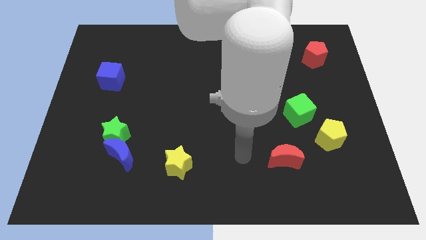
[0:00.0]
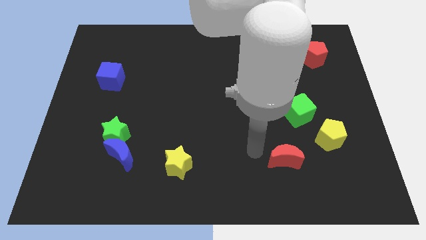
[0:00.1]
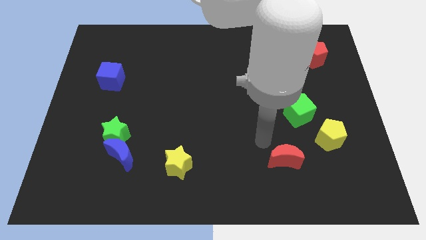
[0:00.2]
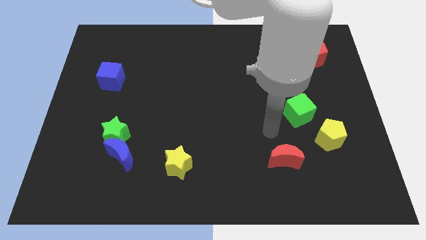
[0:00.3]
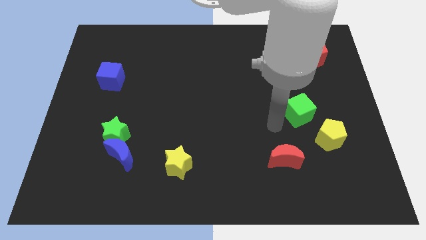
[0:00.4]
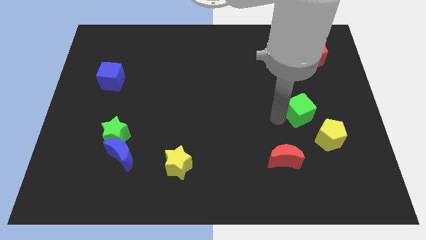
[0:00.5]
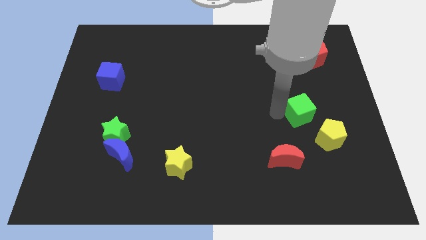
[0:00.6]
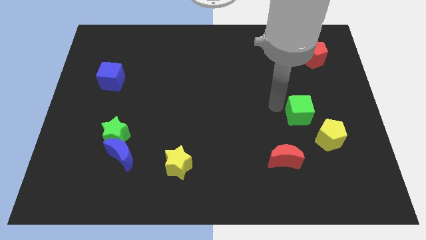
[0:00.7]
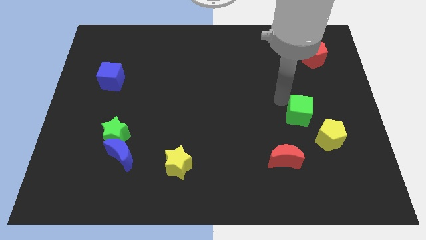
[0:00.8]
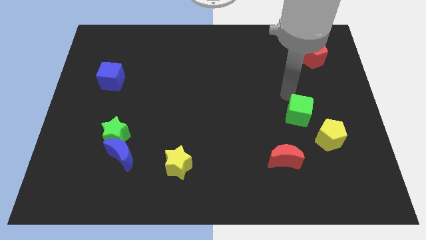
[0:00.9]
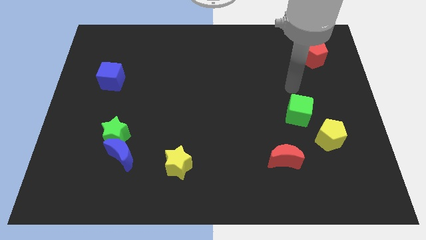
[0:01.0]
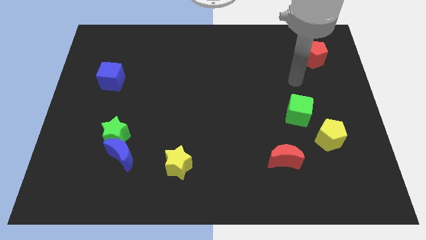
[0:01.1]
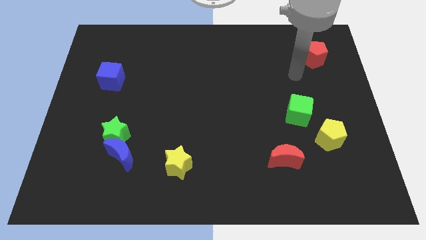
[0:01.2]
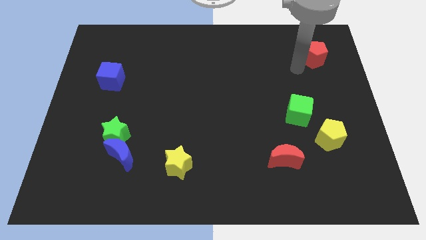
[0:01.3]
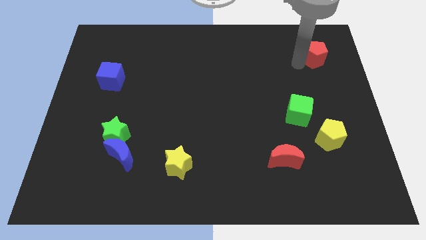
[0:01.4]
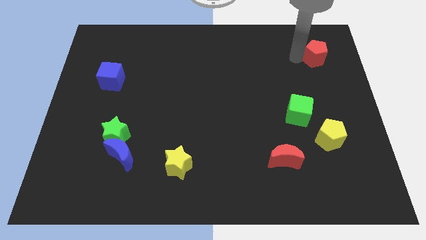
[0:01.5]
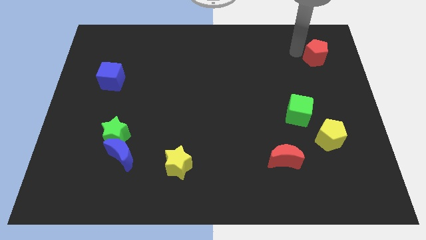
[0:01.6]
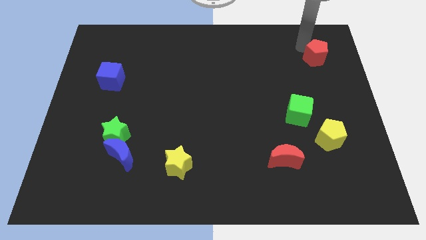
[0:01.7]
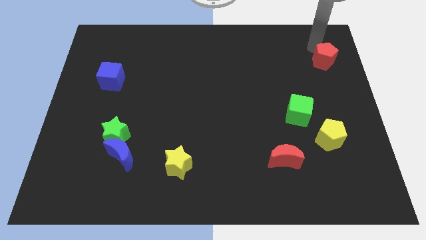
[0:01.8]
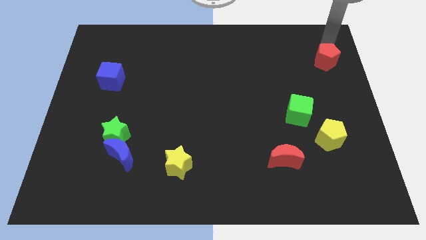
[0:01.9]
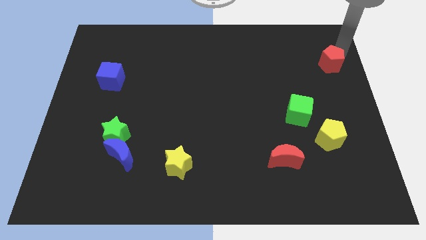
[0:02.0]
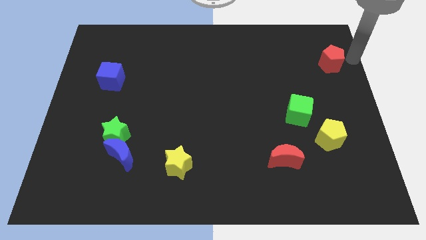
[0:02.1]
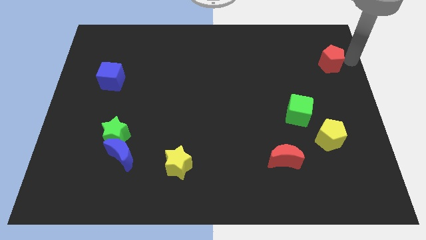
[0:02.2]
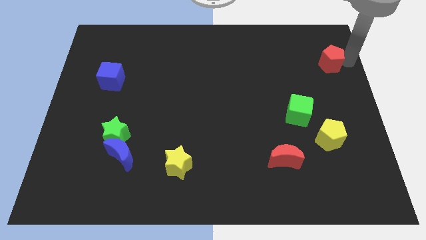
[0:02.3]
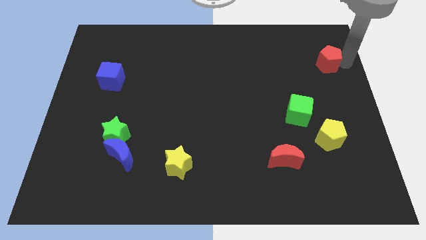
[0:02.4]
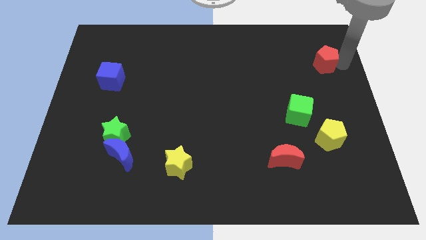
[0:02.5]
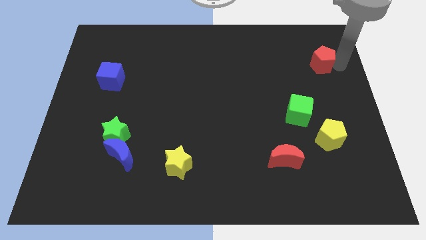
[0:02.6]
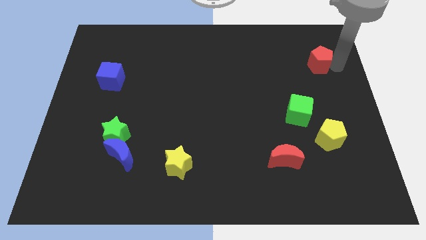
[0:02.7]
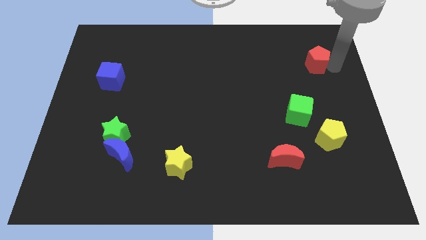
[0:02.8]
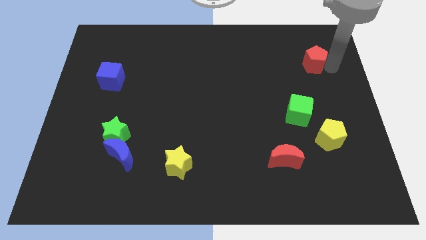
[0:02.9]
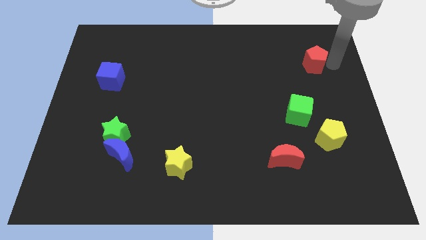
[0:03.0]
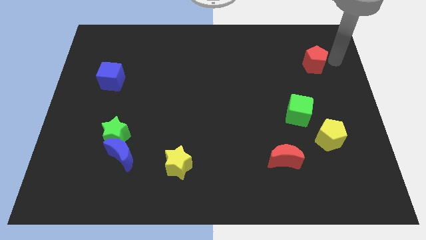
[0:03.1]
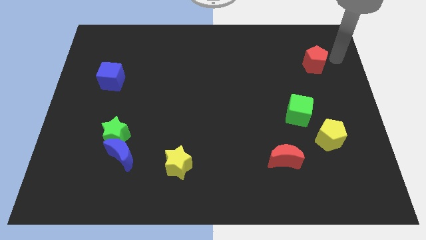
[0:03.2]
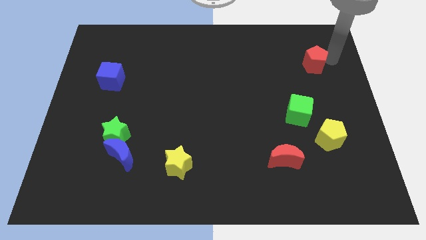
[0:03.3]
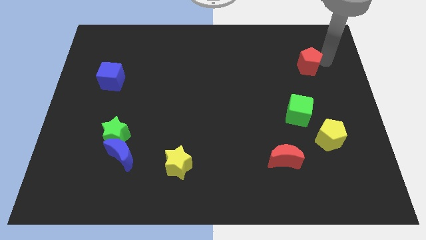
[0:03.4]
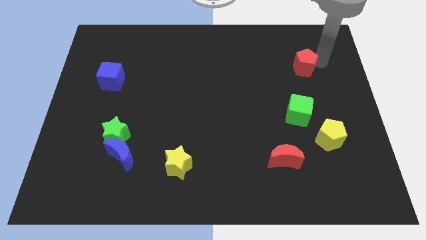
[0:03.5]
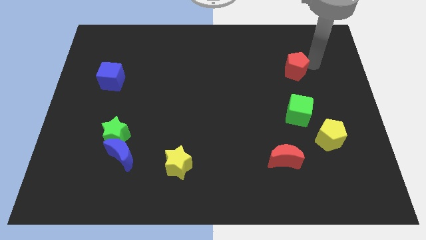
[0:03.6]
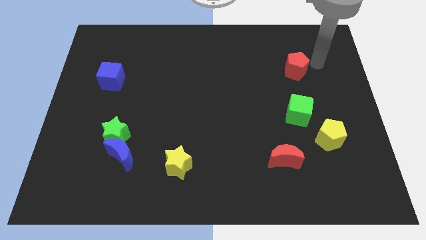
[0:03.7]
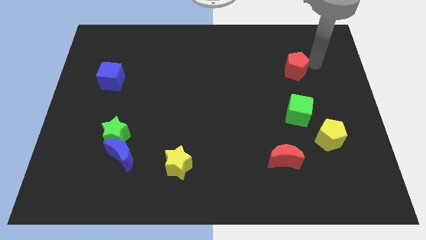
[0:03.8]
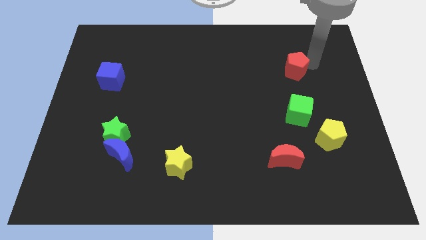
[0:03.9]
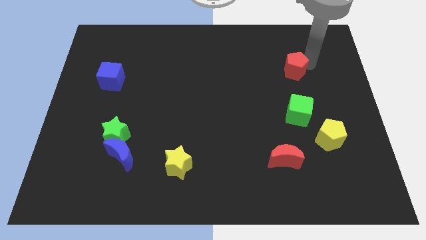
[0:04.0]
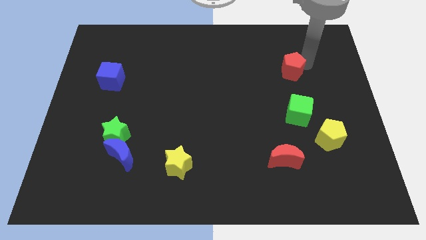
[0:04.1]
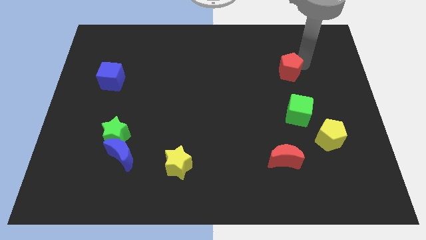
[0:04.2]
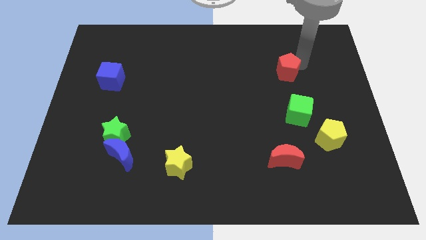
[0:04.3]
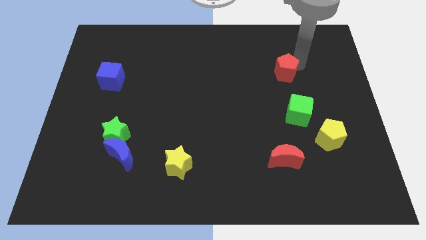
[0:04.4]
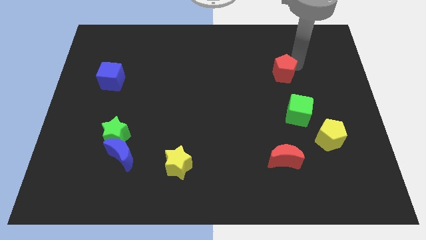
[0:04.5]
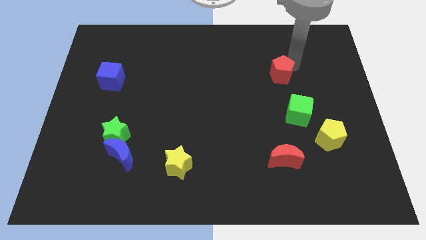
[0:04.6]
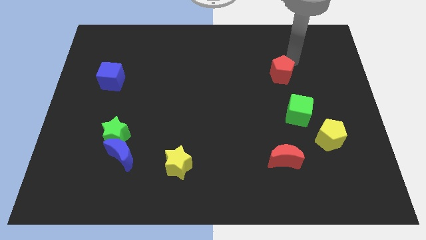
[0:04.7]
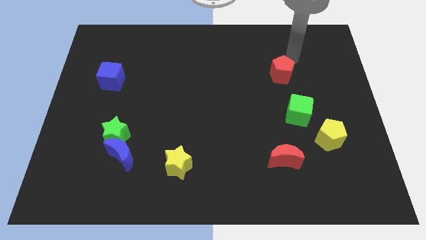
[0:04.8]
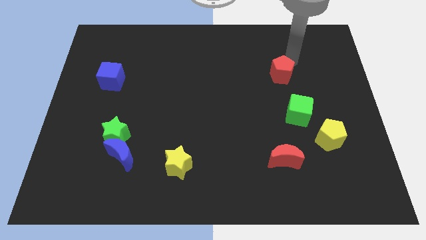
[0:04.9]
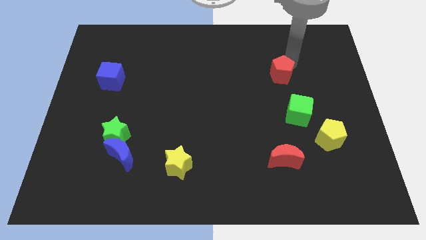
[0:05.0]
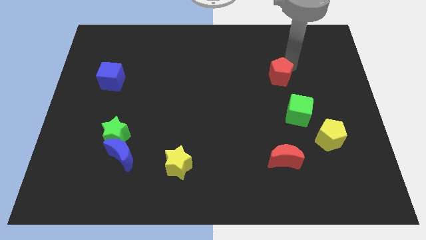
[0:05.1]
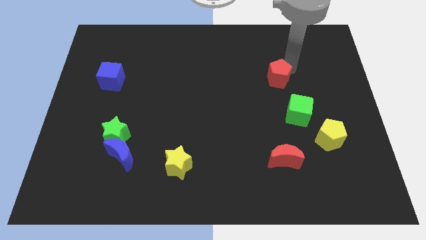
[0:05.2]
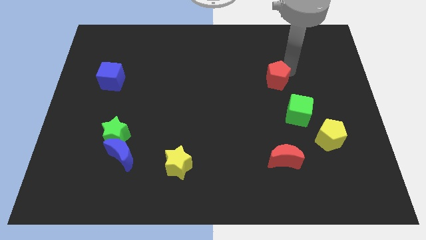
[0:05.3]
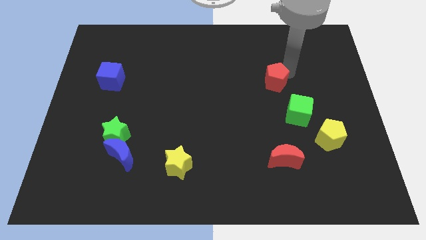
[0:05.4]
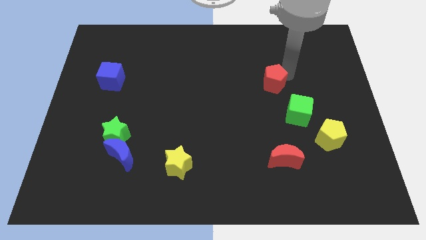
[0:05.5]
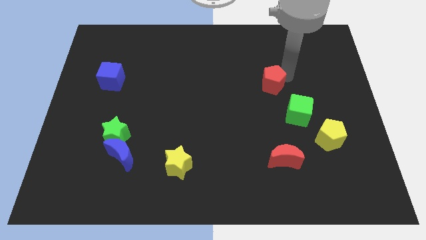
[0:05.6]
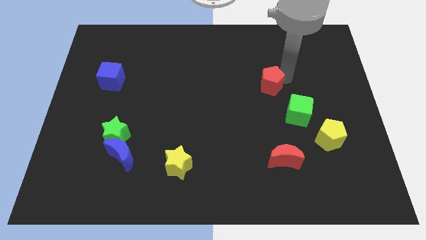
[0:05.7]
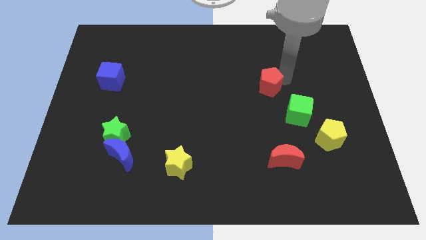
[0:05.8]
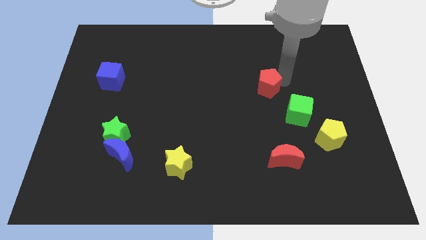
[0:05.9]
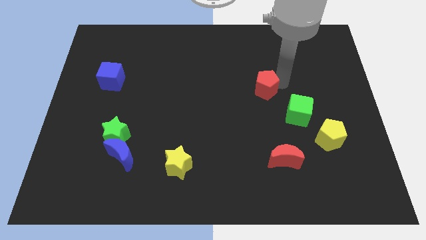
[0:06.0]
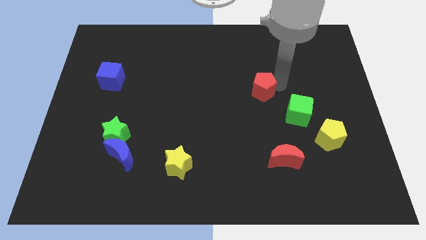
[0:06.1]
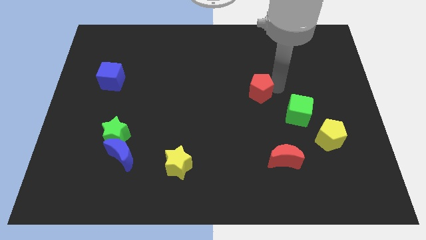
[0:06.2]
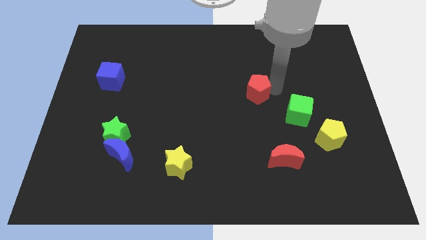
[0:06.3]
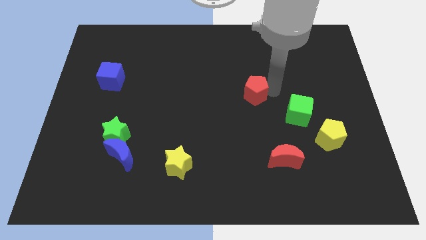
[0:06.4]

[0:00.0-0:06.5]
push the red pentagon downwards and then to the left

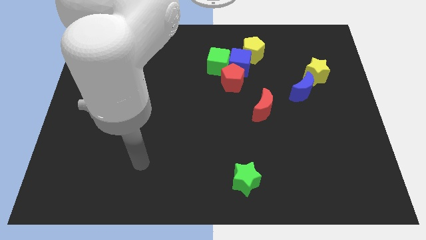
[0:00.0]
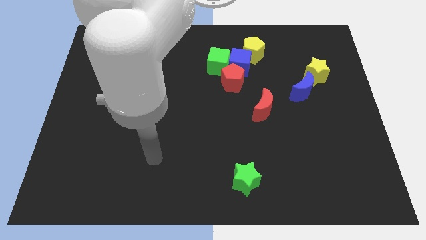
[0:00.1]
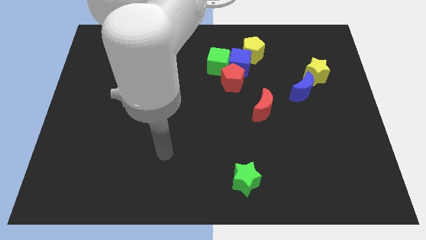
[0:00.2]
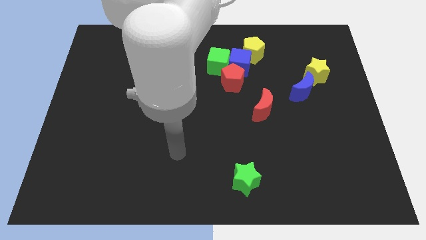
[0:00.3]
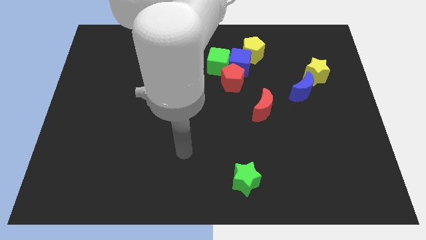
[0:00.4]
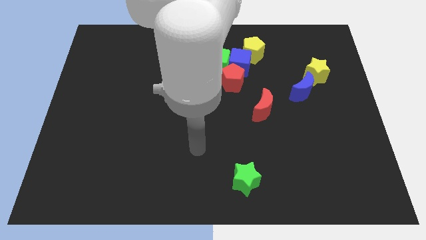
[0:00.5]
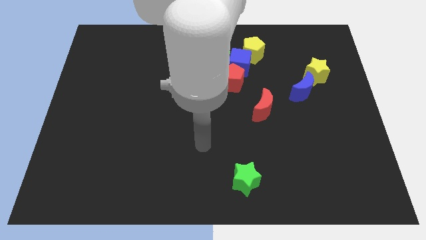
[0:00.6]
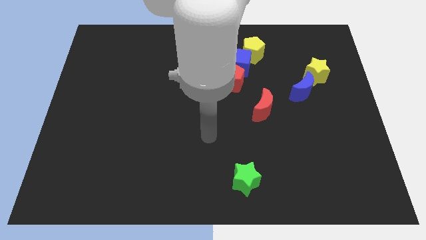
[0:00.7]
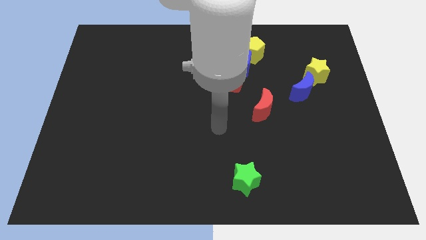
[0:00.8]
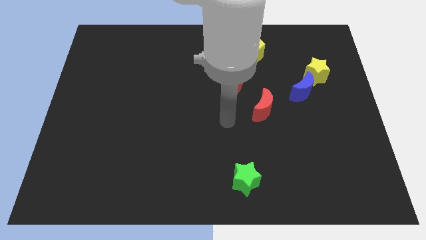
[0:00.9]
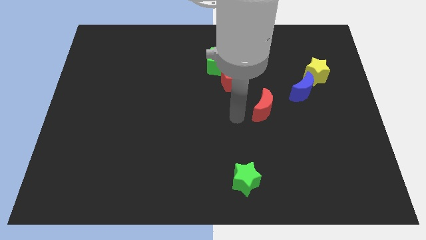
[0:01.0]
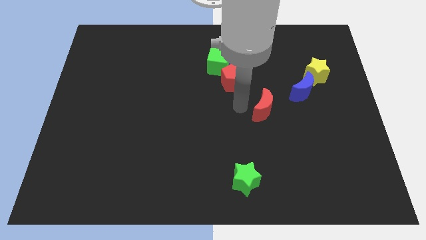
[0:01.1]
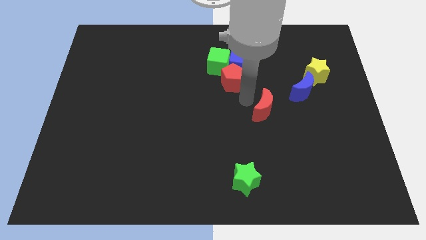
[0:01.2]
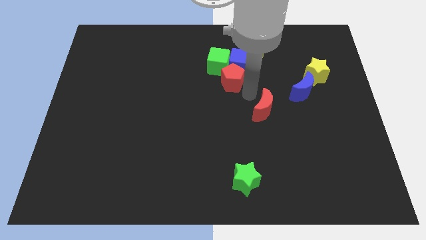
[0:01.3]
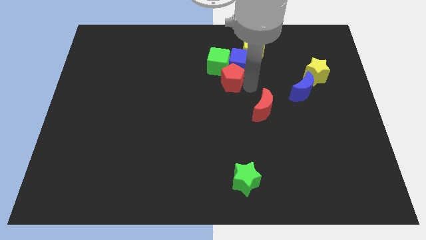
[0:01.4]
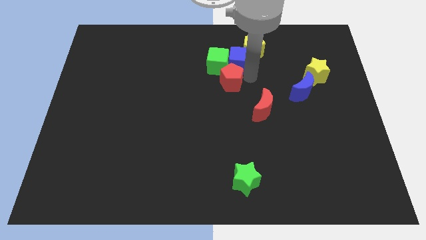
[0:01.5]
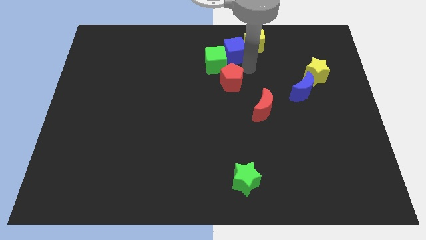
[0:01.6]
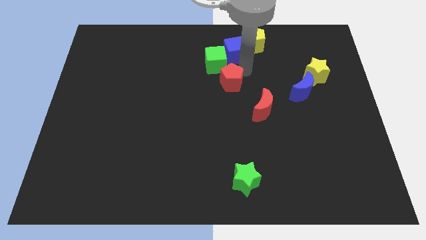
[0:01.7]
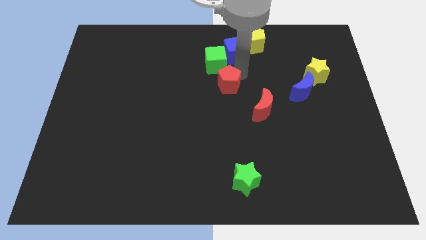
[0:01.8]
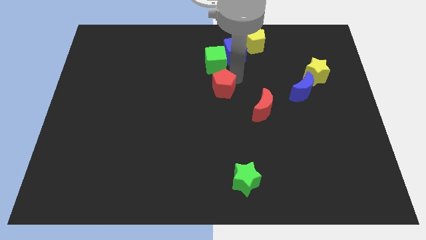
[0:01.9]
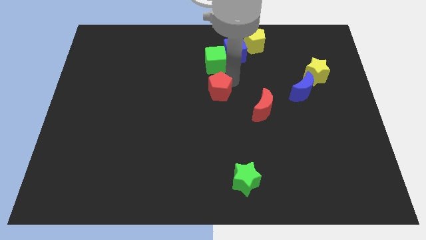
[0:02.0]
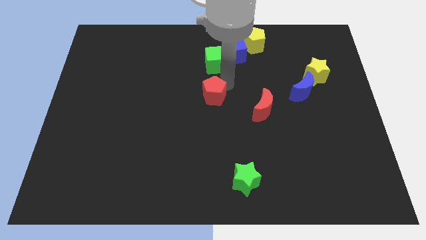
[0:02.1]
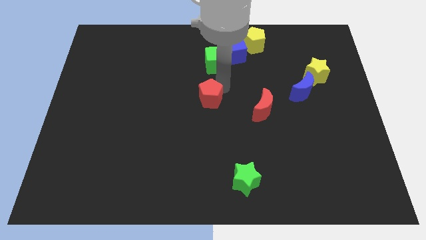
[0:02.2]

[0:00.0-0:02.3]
slightly slide the red pentagon down and to the left diagonally
